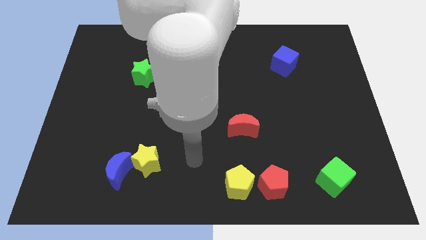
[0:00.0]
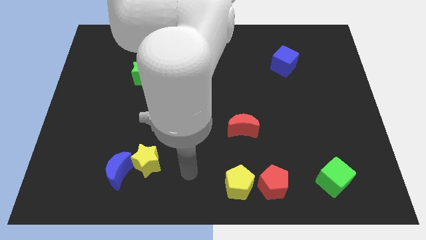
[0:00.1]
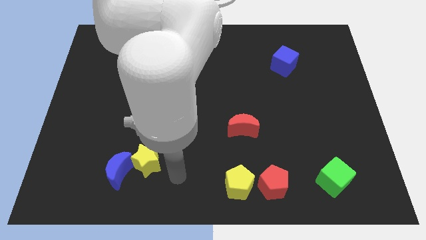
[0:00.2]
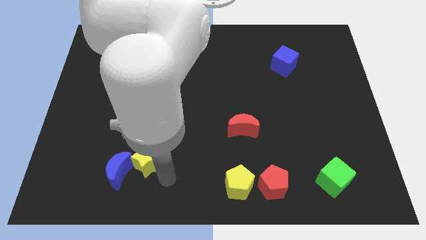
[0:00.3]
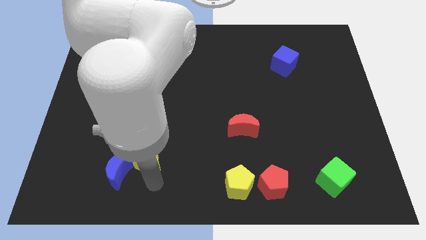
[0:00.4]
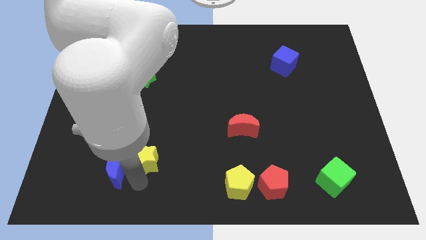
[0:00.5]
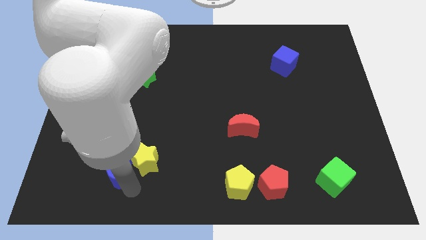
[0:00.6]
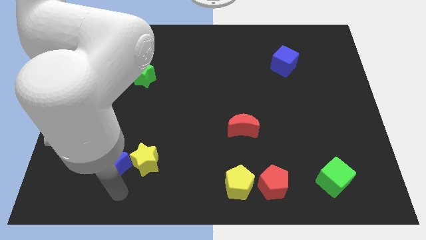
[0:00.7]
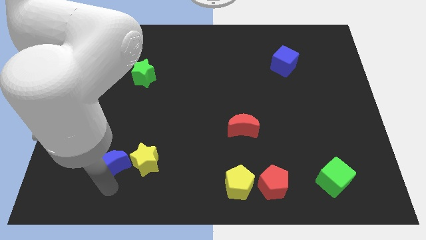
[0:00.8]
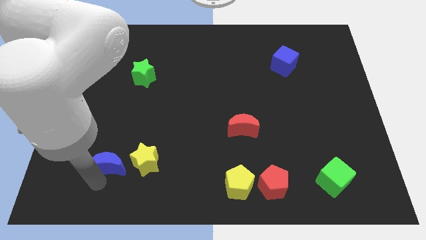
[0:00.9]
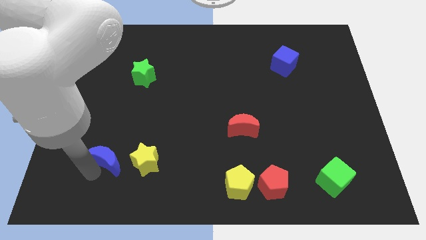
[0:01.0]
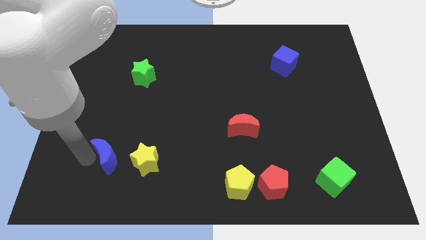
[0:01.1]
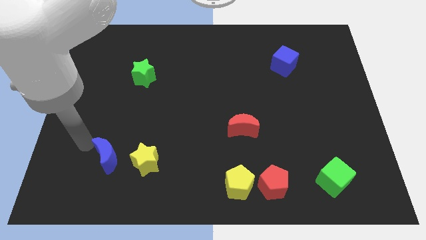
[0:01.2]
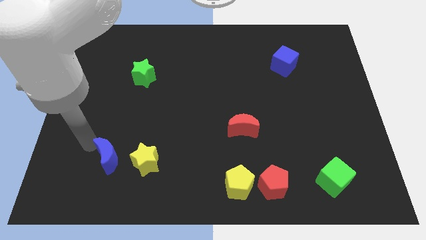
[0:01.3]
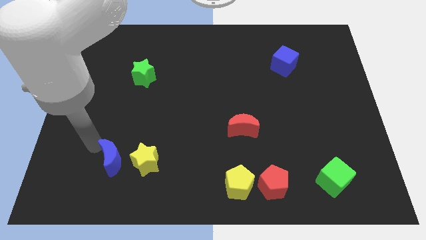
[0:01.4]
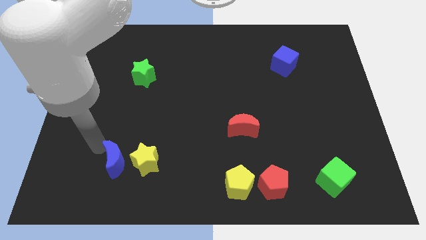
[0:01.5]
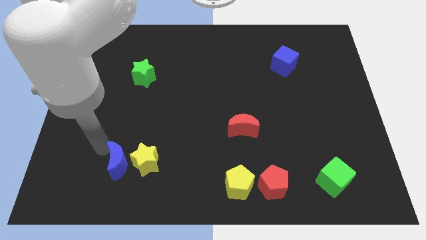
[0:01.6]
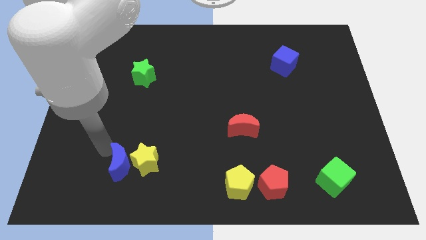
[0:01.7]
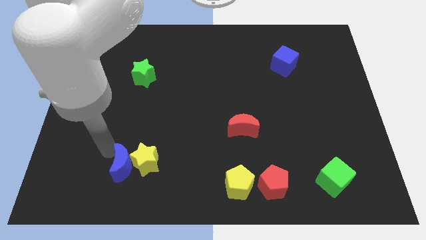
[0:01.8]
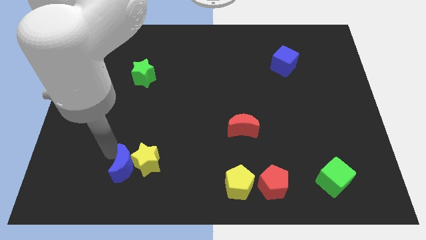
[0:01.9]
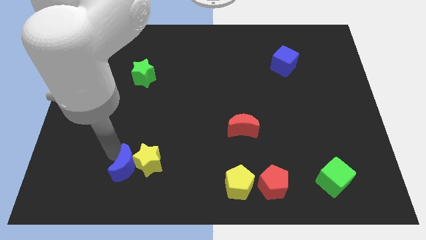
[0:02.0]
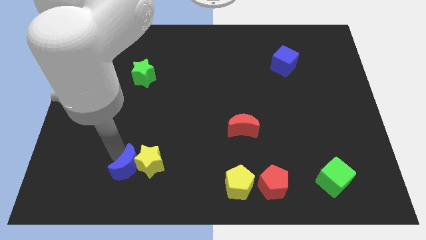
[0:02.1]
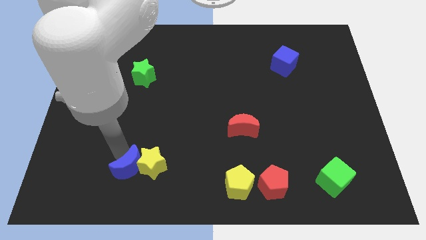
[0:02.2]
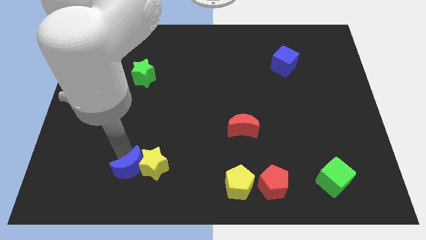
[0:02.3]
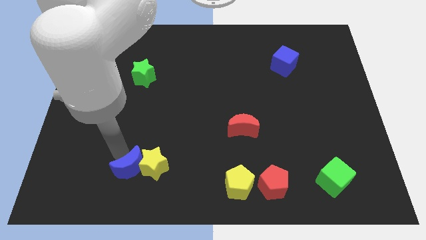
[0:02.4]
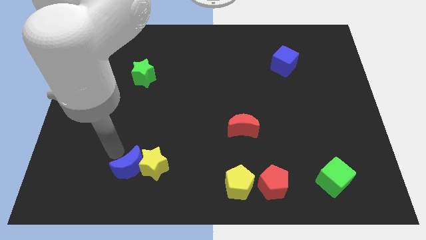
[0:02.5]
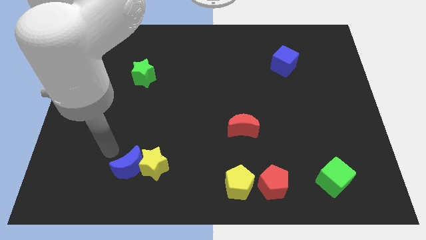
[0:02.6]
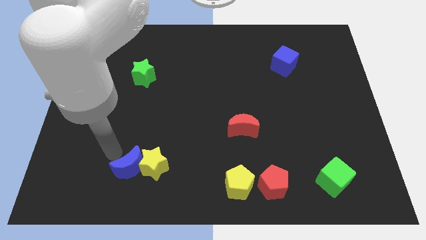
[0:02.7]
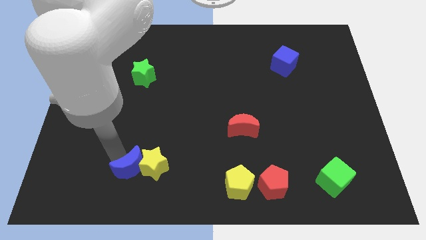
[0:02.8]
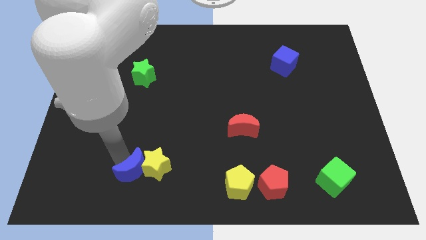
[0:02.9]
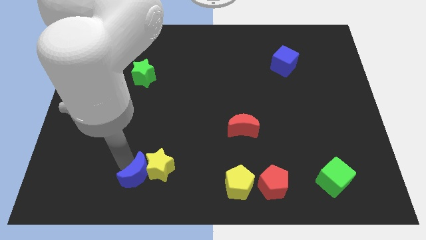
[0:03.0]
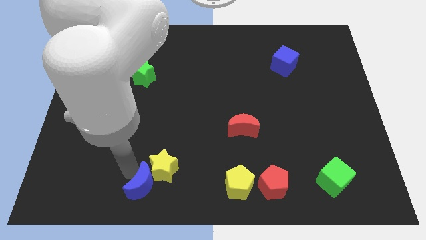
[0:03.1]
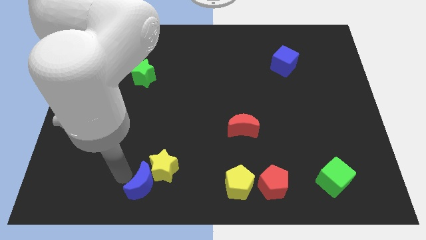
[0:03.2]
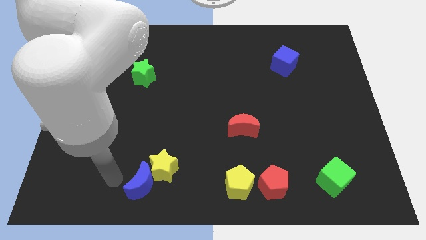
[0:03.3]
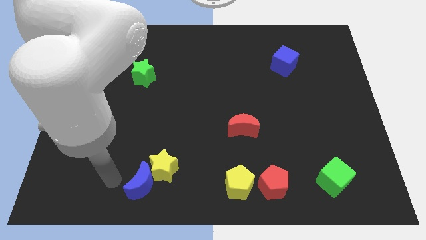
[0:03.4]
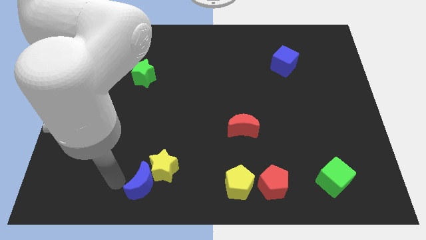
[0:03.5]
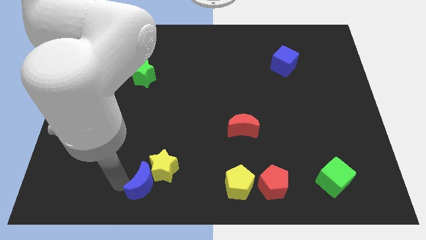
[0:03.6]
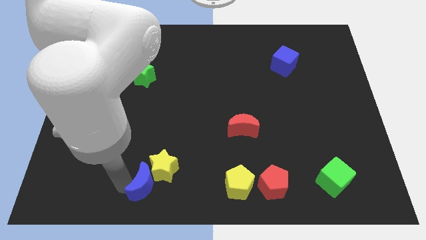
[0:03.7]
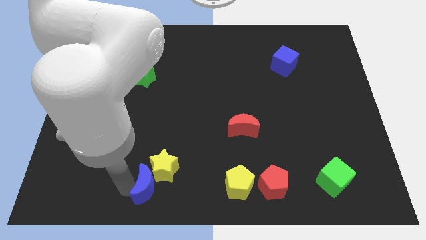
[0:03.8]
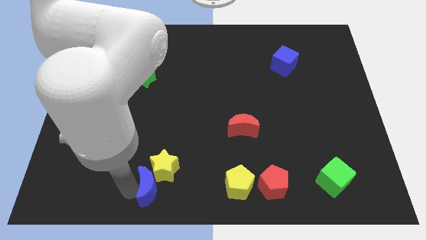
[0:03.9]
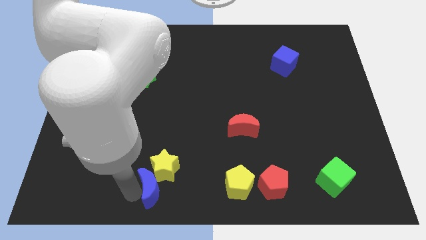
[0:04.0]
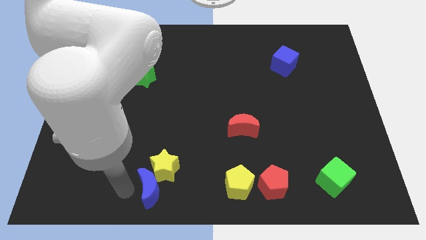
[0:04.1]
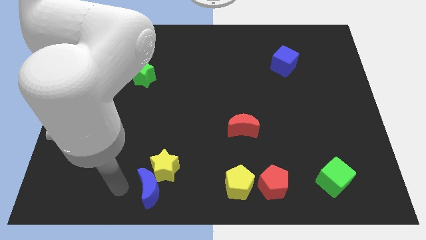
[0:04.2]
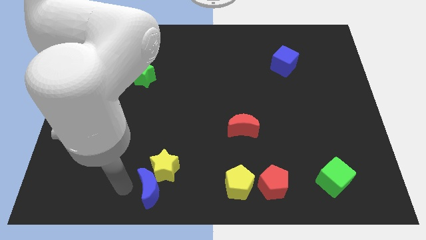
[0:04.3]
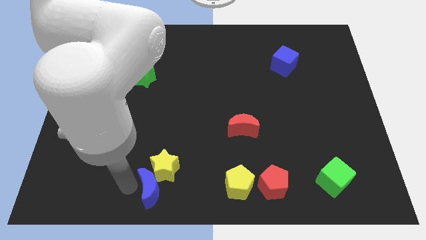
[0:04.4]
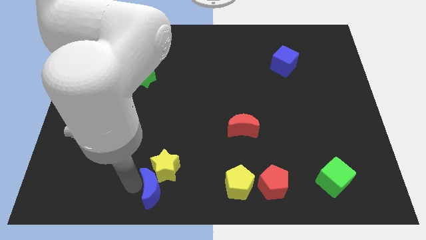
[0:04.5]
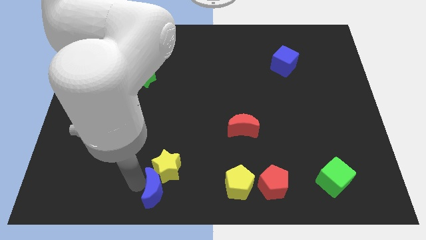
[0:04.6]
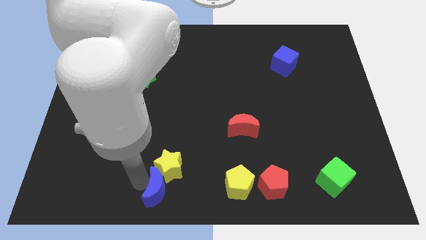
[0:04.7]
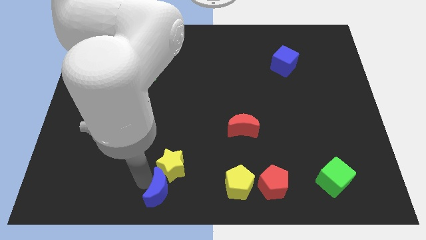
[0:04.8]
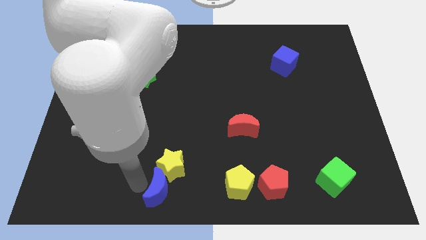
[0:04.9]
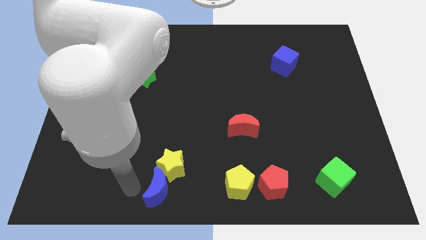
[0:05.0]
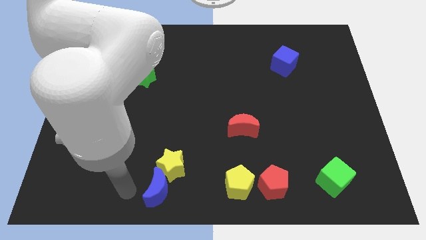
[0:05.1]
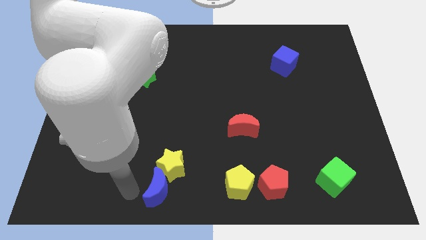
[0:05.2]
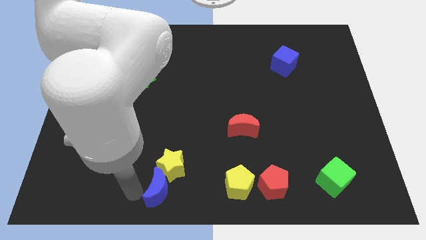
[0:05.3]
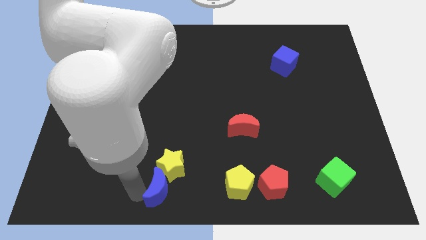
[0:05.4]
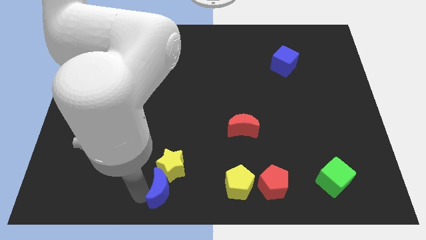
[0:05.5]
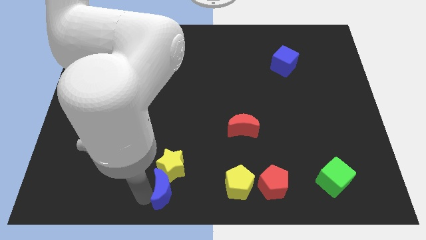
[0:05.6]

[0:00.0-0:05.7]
slide the blue moon diagonally down and to the right of the yellow star

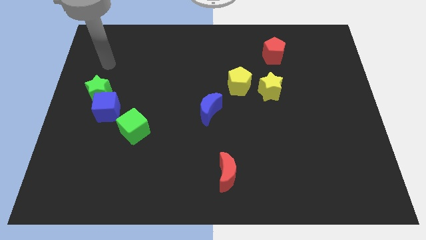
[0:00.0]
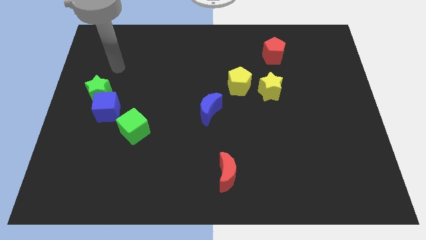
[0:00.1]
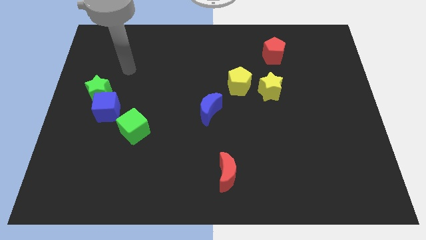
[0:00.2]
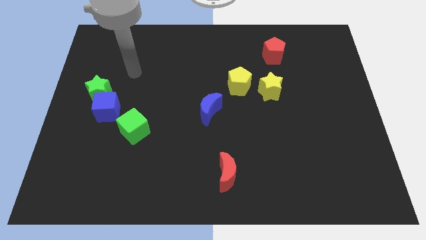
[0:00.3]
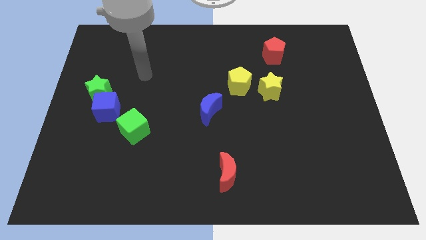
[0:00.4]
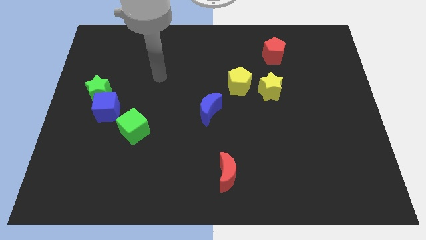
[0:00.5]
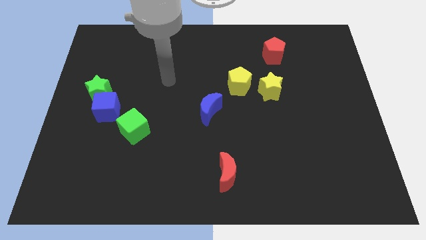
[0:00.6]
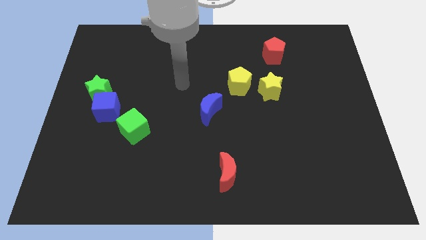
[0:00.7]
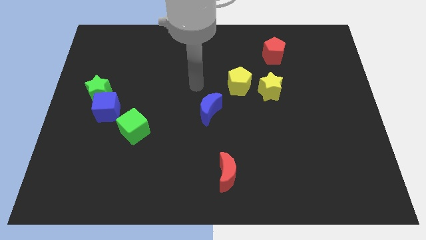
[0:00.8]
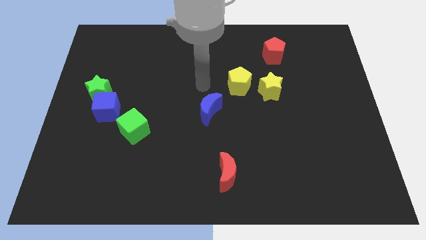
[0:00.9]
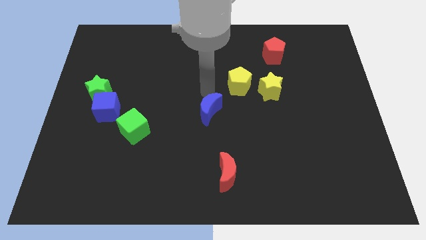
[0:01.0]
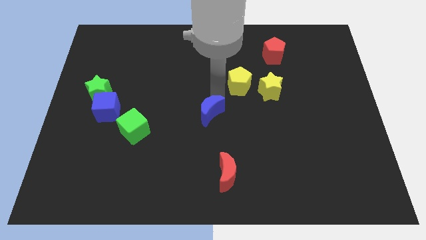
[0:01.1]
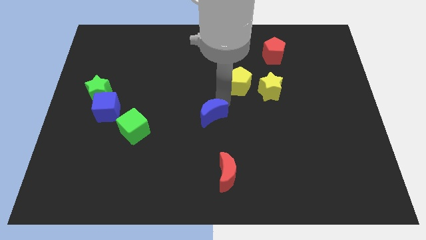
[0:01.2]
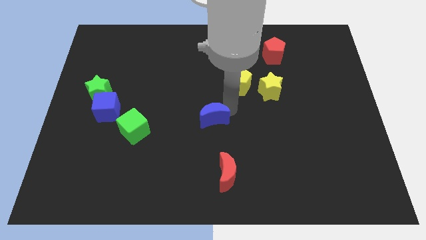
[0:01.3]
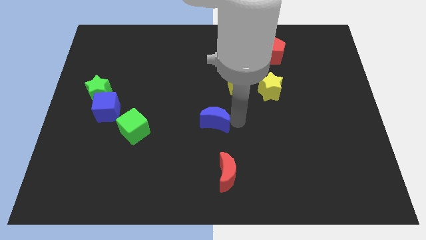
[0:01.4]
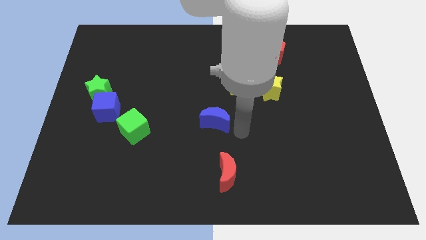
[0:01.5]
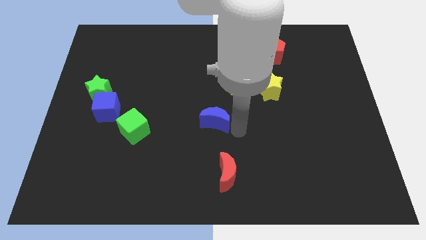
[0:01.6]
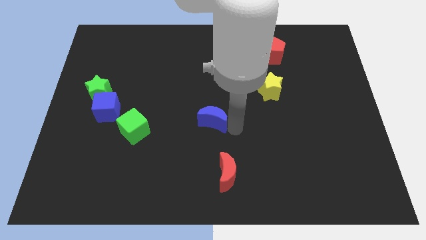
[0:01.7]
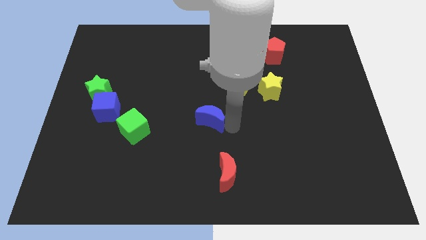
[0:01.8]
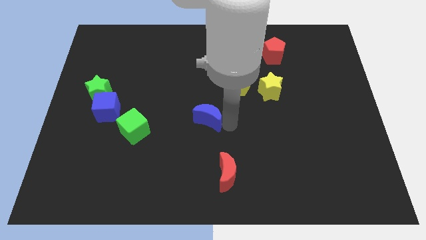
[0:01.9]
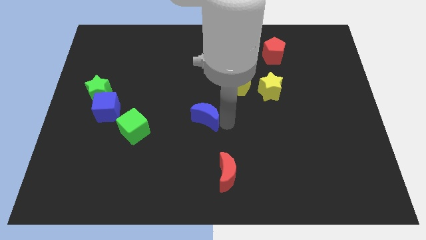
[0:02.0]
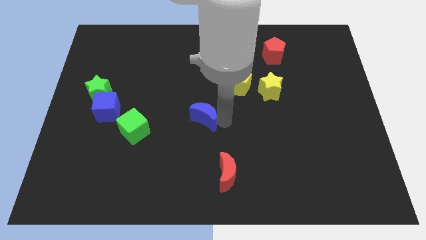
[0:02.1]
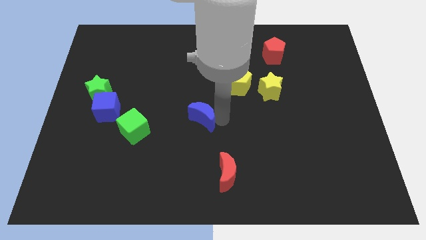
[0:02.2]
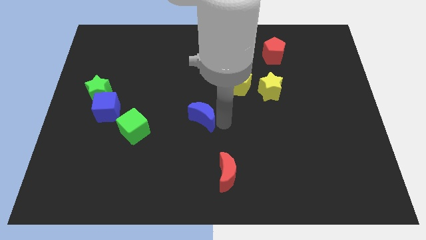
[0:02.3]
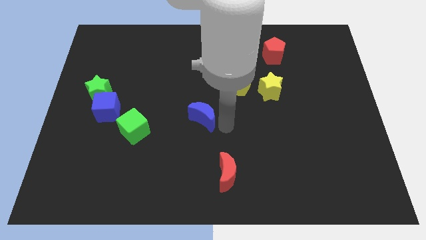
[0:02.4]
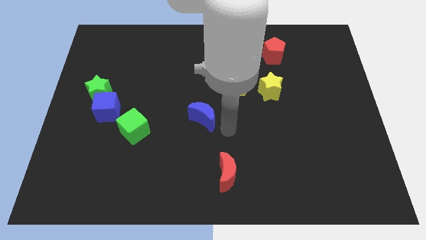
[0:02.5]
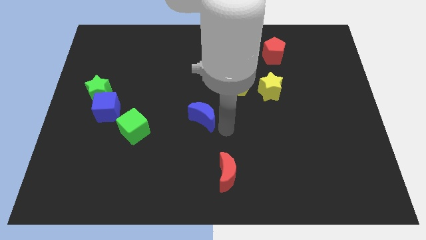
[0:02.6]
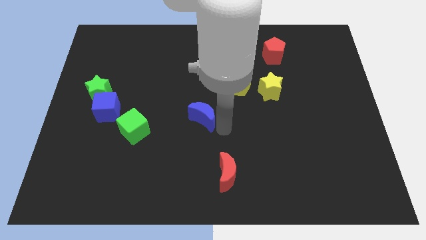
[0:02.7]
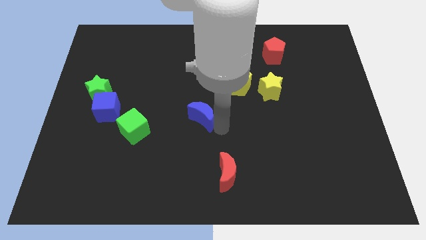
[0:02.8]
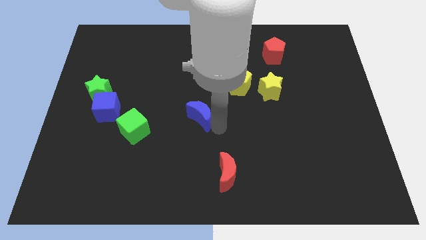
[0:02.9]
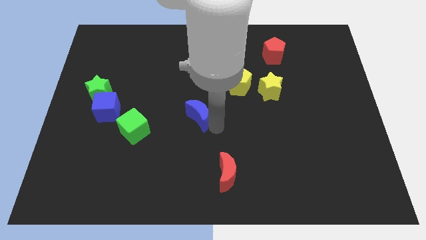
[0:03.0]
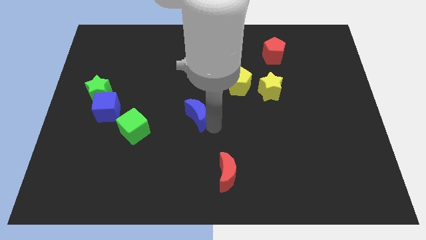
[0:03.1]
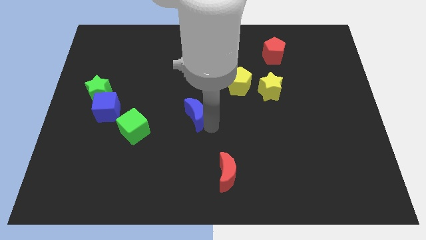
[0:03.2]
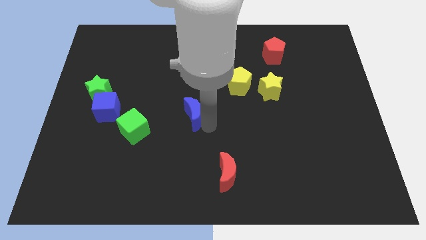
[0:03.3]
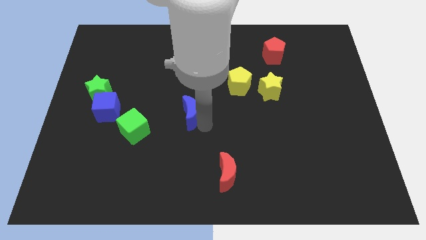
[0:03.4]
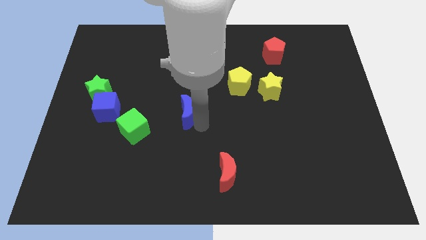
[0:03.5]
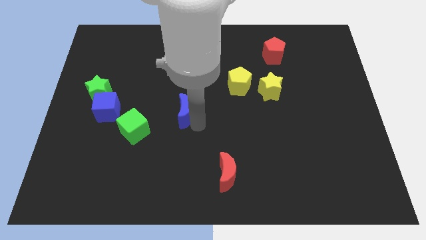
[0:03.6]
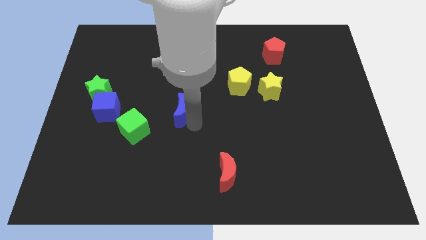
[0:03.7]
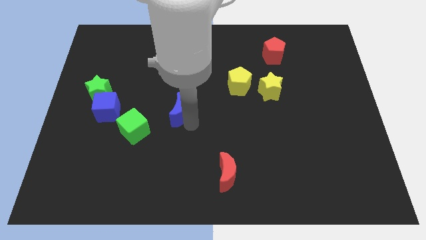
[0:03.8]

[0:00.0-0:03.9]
move the blue moon to the top right side of the green cube
